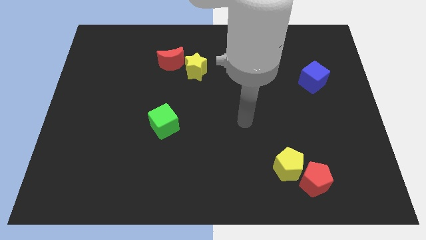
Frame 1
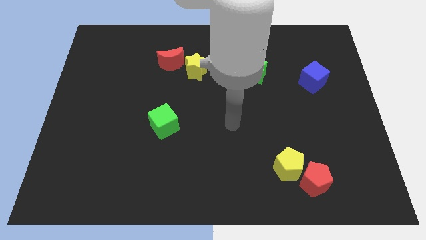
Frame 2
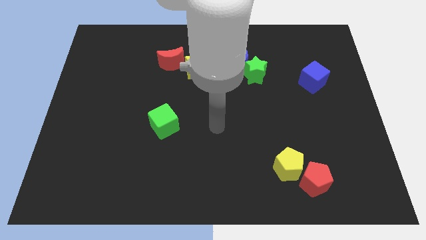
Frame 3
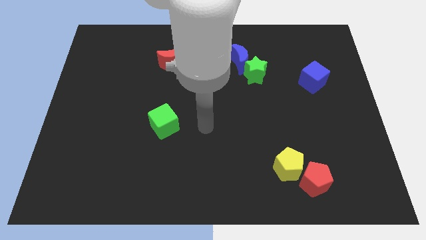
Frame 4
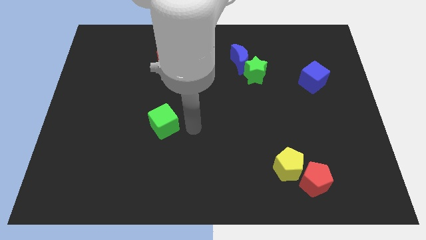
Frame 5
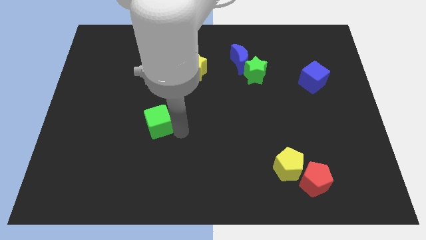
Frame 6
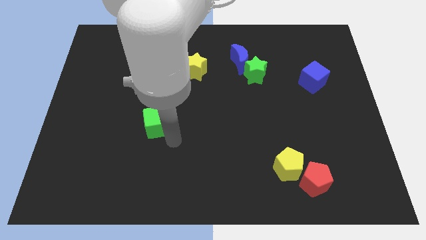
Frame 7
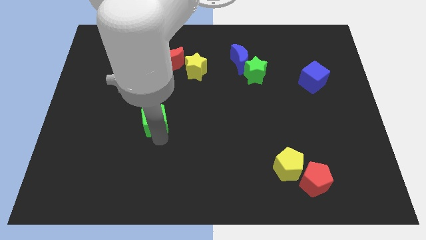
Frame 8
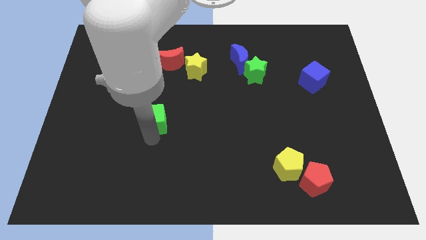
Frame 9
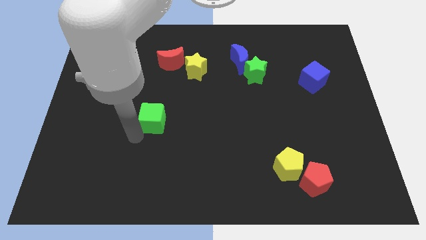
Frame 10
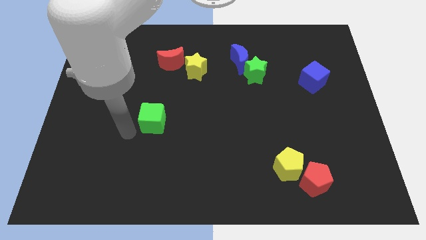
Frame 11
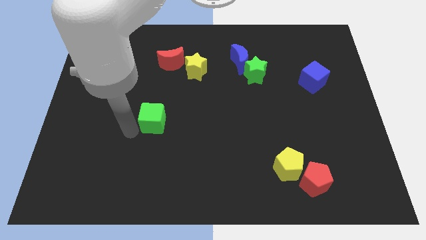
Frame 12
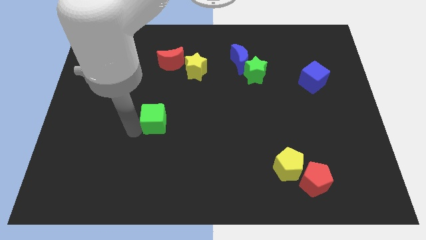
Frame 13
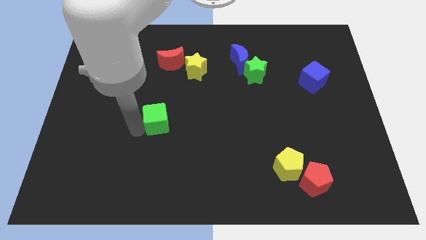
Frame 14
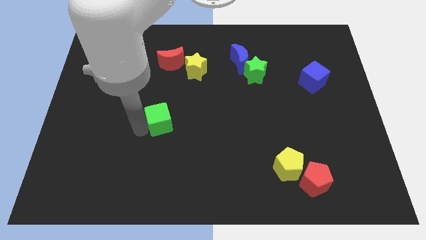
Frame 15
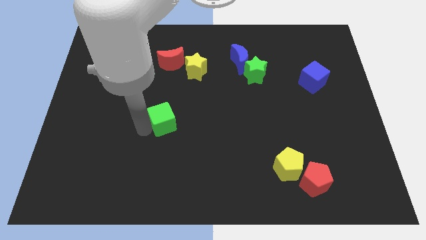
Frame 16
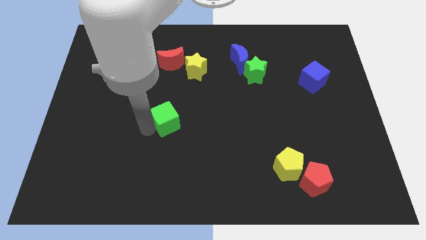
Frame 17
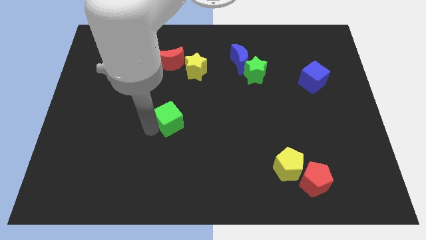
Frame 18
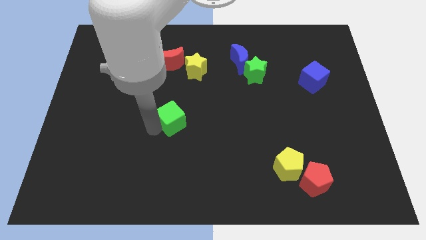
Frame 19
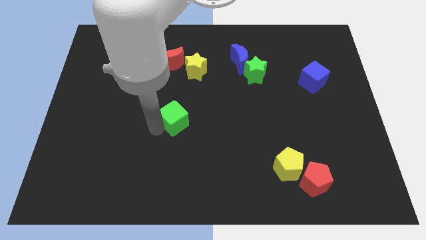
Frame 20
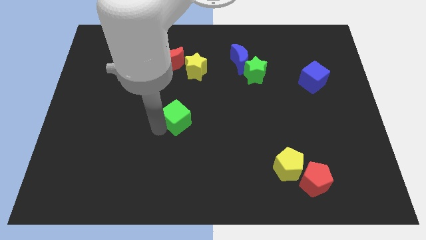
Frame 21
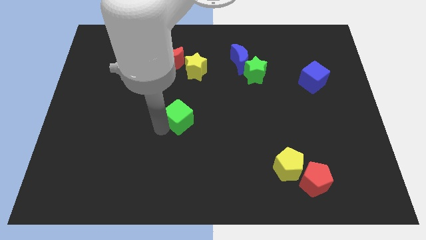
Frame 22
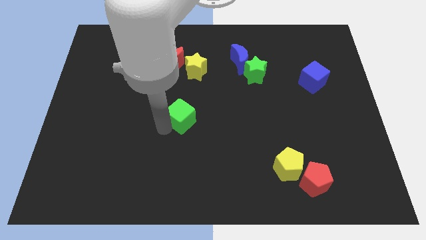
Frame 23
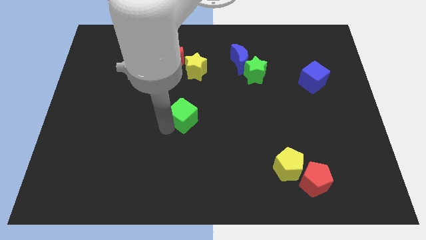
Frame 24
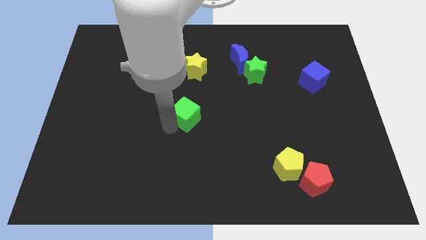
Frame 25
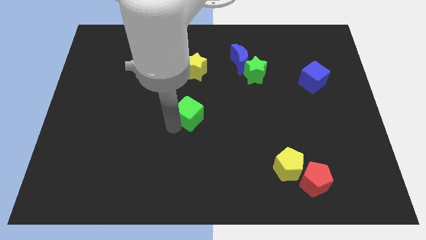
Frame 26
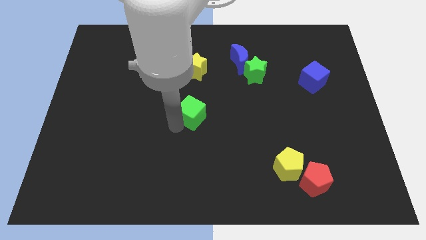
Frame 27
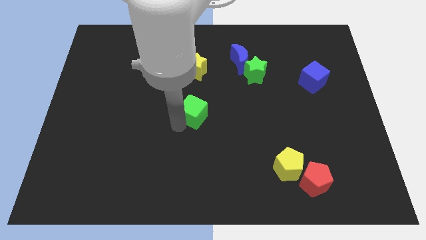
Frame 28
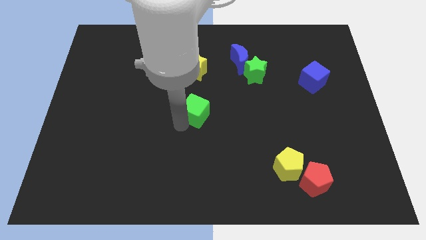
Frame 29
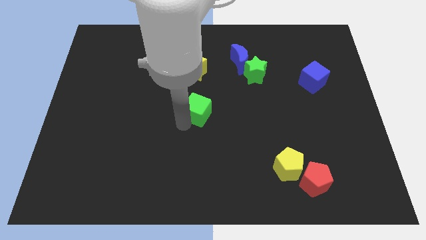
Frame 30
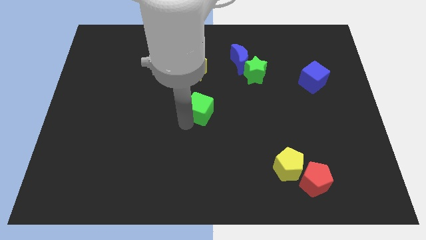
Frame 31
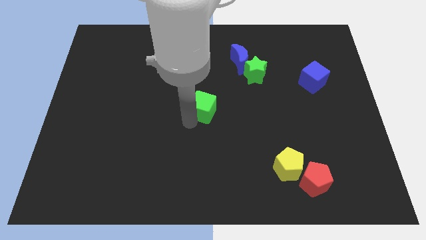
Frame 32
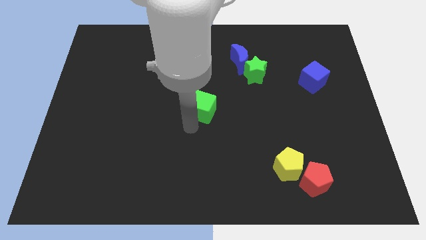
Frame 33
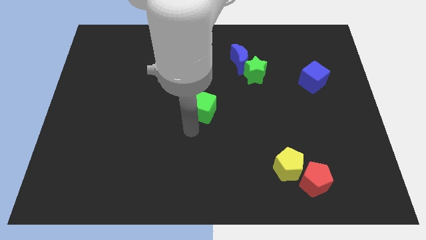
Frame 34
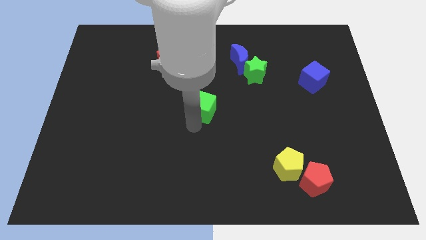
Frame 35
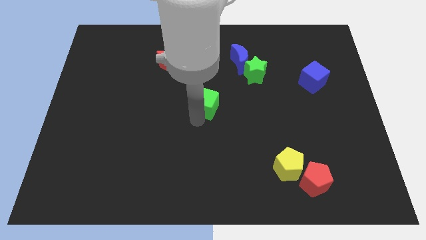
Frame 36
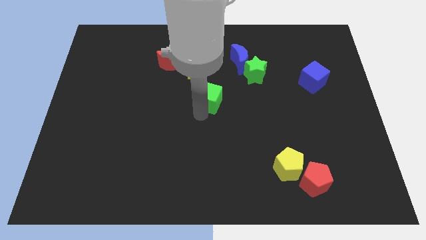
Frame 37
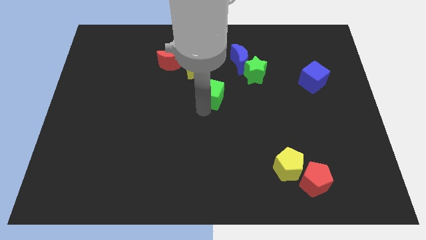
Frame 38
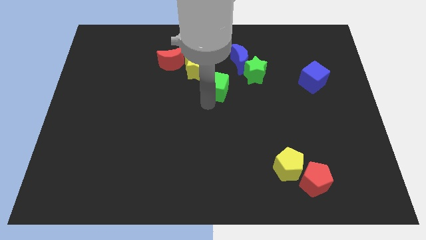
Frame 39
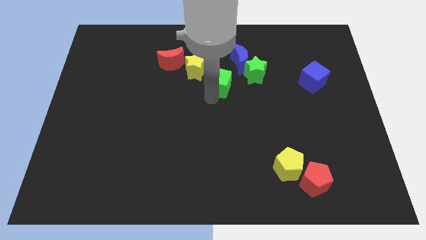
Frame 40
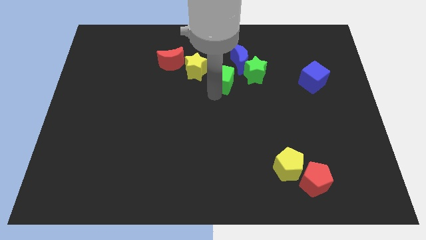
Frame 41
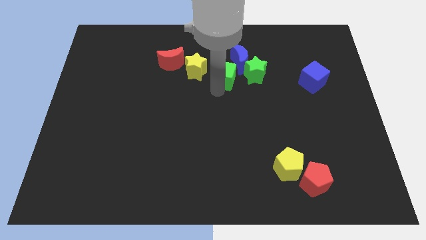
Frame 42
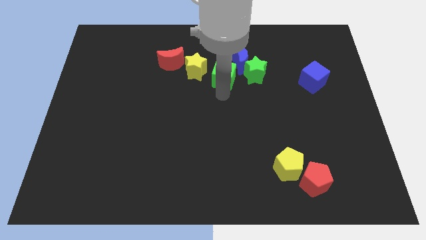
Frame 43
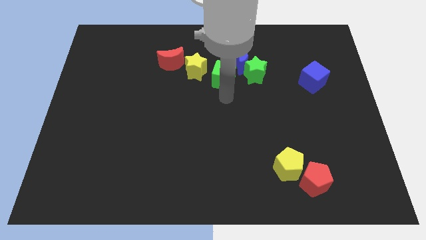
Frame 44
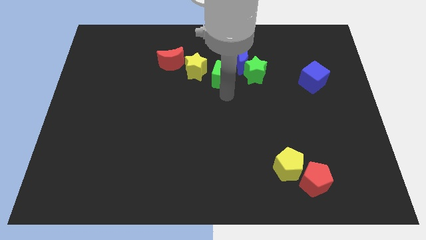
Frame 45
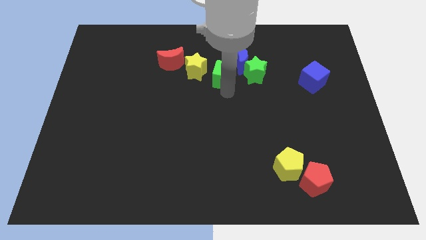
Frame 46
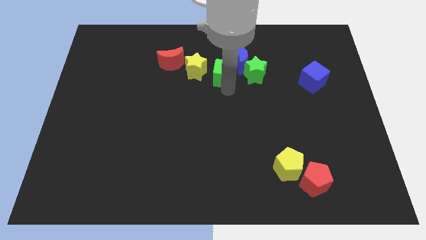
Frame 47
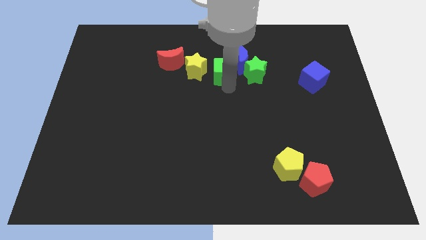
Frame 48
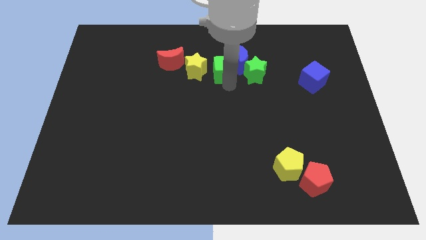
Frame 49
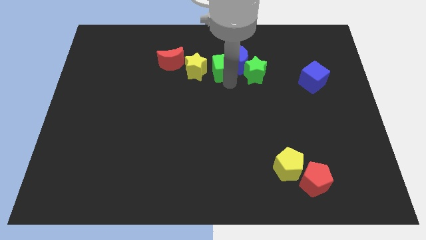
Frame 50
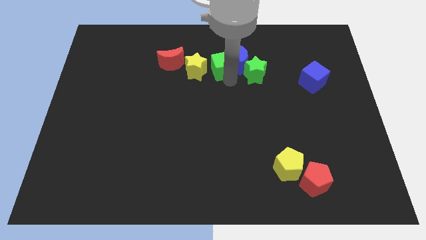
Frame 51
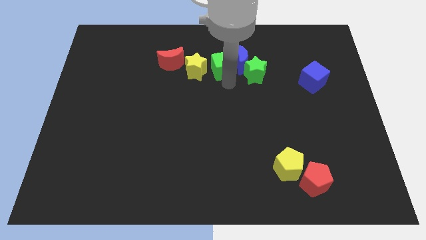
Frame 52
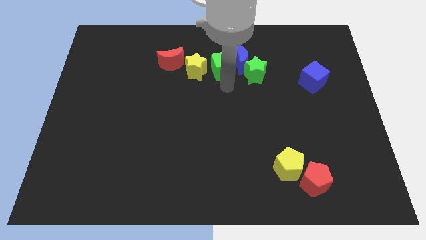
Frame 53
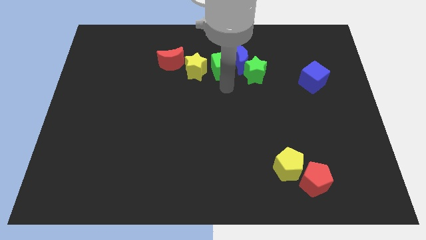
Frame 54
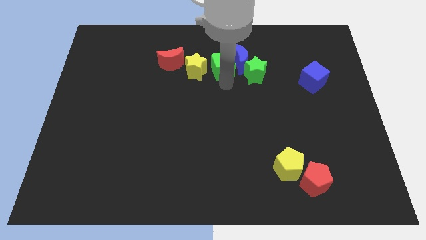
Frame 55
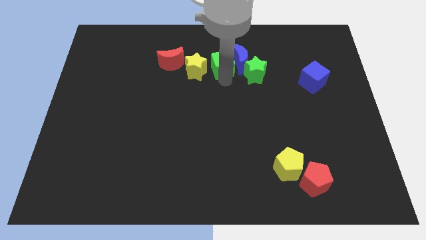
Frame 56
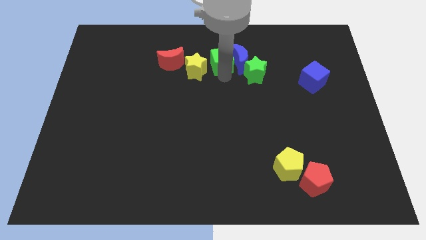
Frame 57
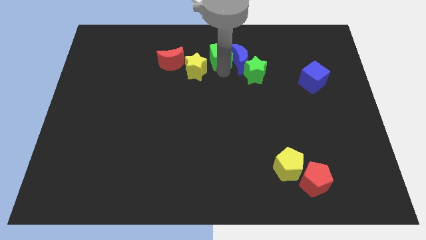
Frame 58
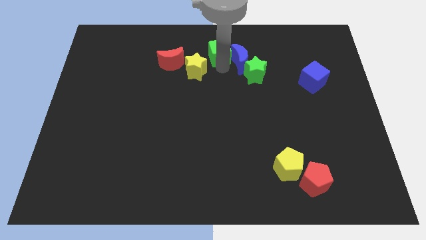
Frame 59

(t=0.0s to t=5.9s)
move the green cube to the top

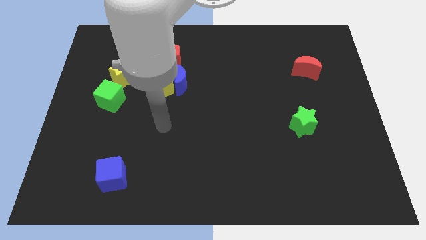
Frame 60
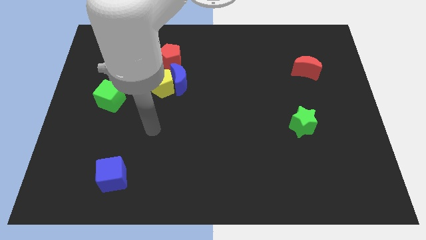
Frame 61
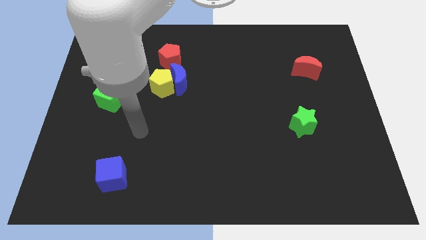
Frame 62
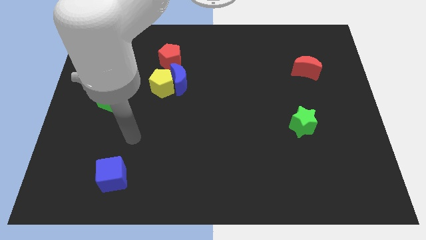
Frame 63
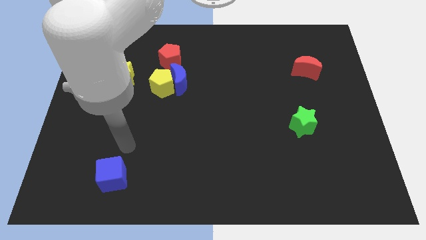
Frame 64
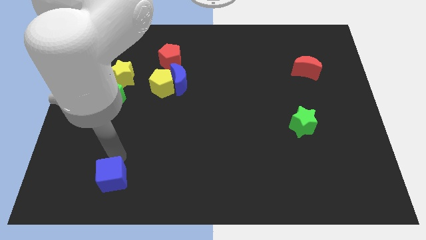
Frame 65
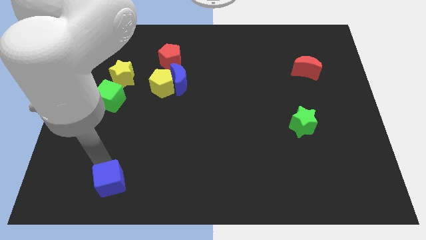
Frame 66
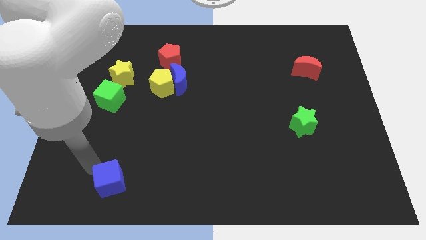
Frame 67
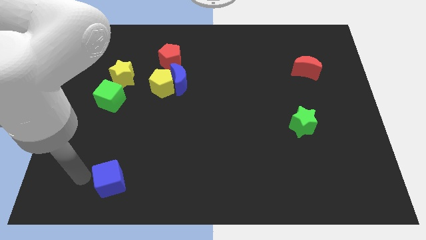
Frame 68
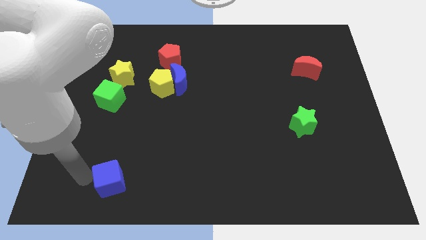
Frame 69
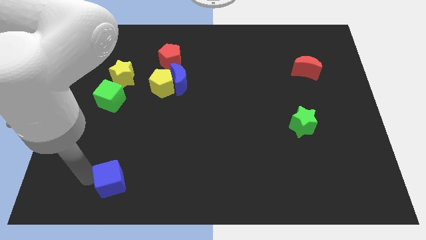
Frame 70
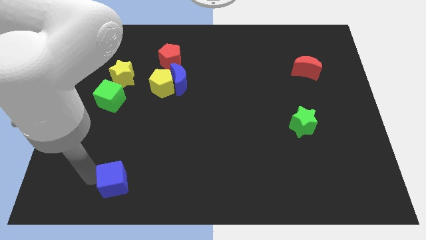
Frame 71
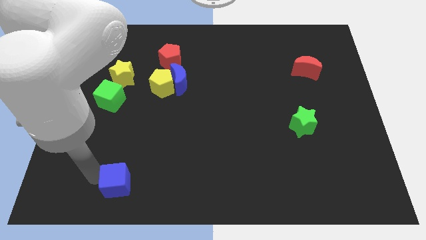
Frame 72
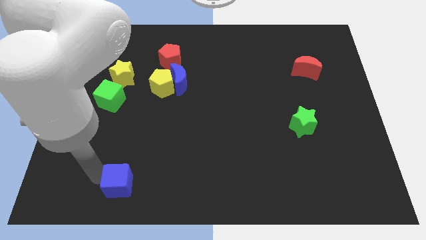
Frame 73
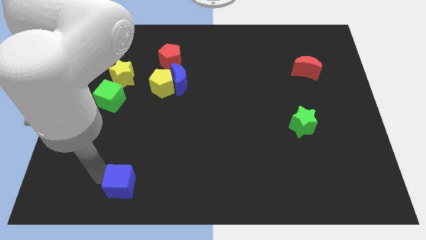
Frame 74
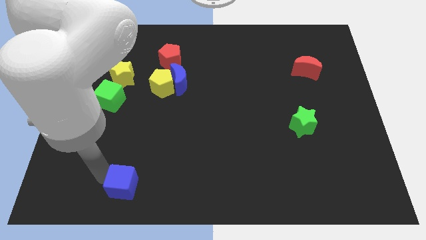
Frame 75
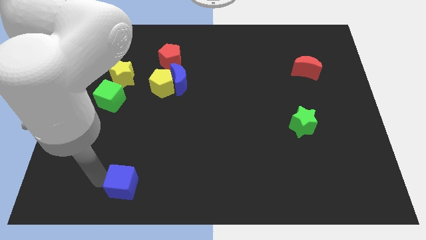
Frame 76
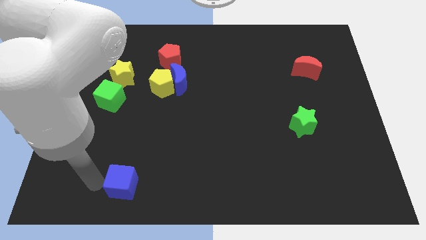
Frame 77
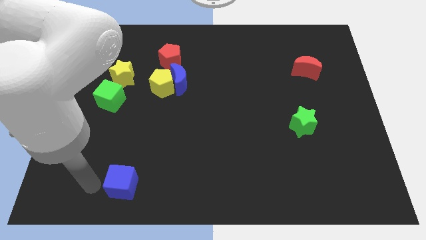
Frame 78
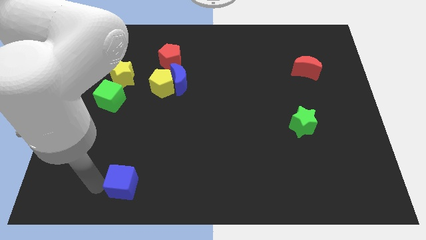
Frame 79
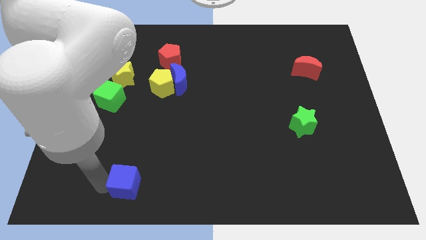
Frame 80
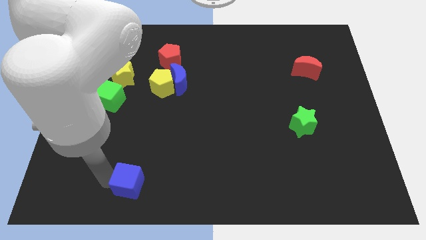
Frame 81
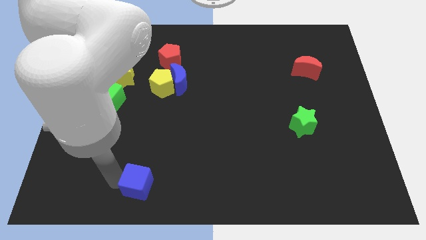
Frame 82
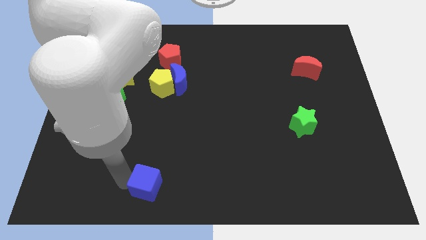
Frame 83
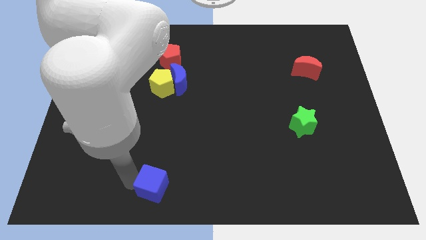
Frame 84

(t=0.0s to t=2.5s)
push the blue cube to the bottom side
